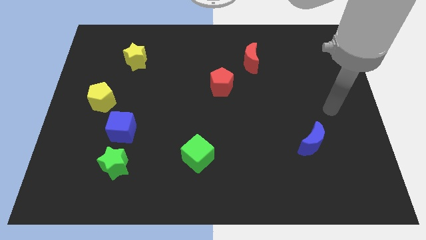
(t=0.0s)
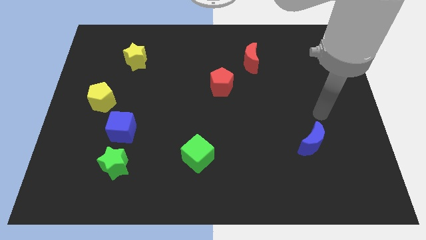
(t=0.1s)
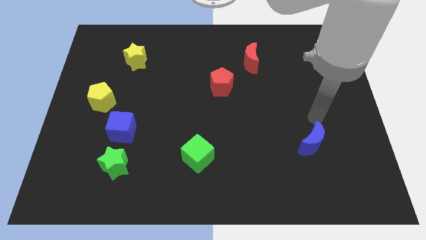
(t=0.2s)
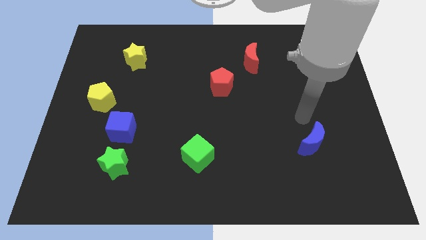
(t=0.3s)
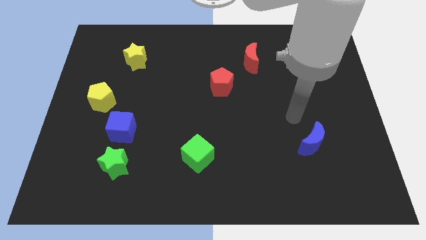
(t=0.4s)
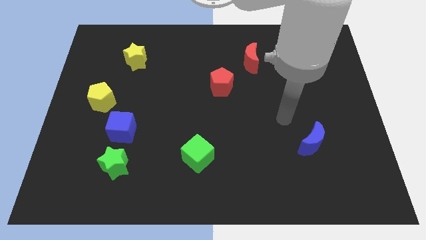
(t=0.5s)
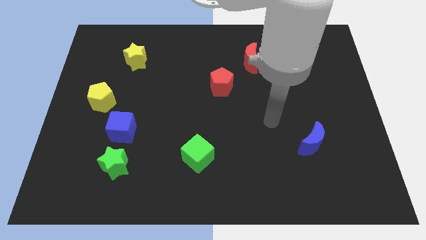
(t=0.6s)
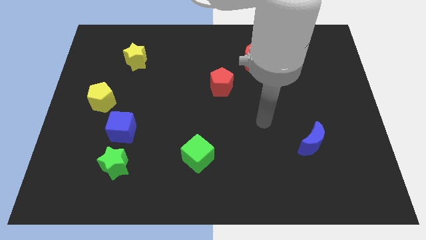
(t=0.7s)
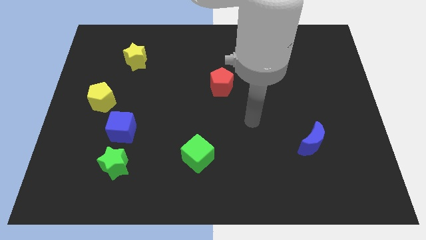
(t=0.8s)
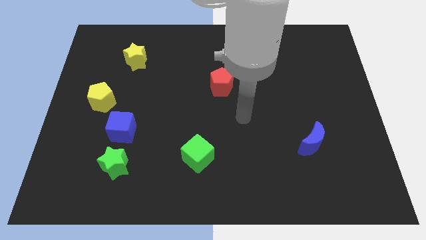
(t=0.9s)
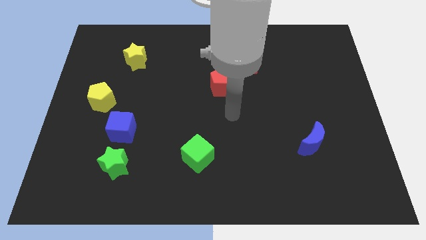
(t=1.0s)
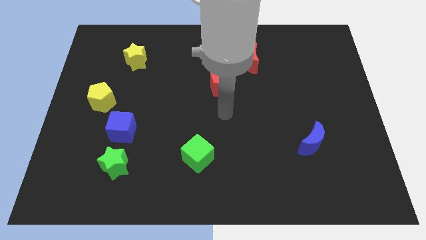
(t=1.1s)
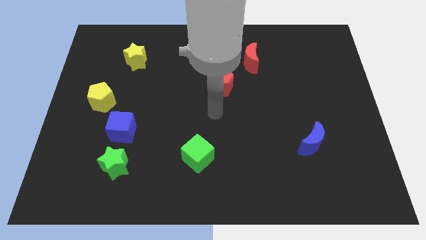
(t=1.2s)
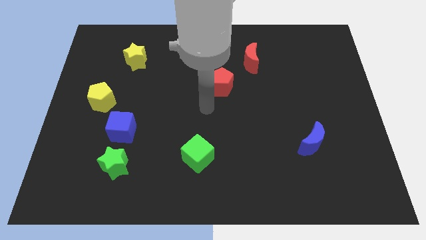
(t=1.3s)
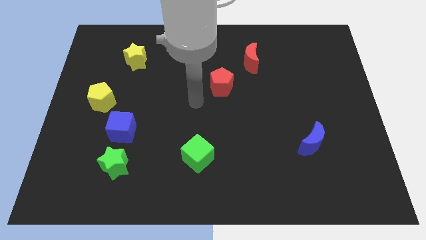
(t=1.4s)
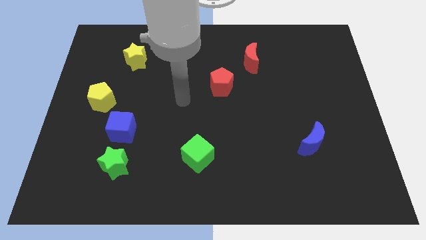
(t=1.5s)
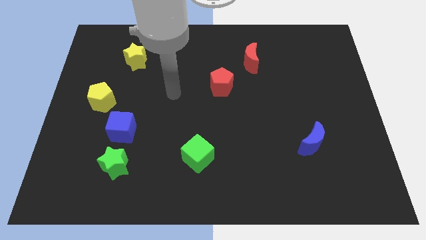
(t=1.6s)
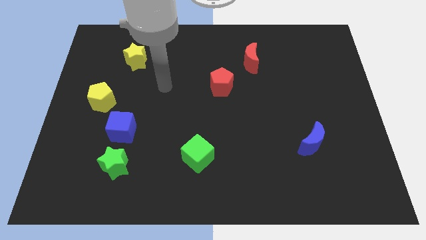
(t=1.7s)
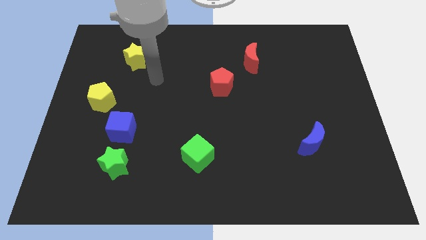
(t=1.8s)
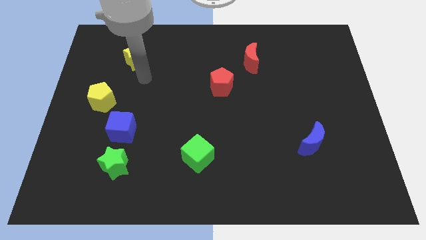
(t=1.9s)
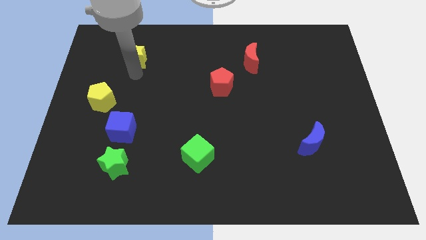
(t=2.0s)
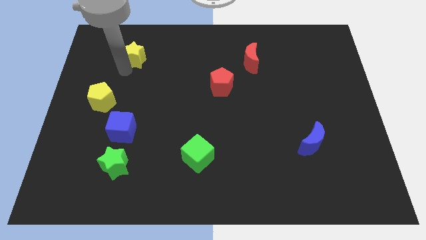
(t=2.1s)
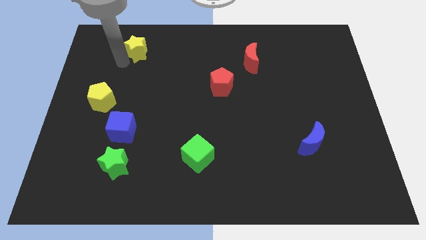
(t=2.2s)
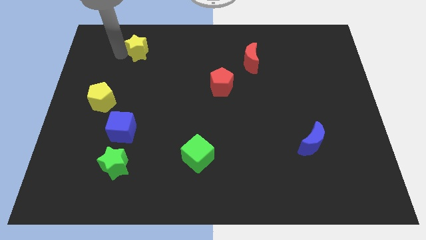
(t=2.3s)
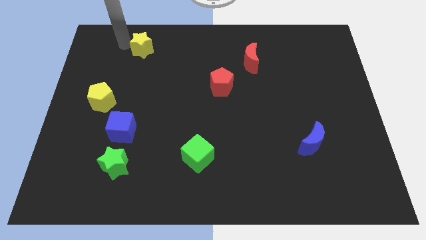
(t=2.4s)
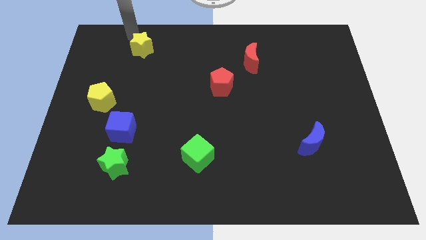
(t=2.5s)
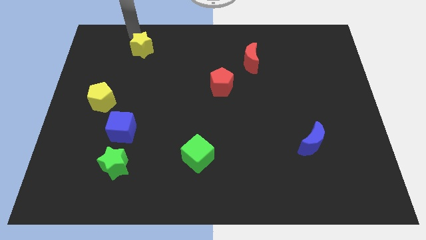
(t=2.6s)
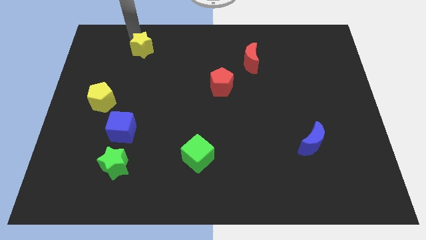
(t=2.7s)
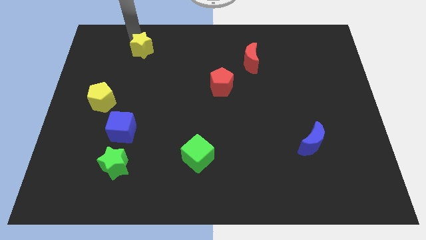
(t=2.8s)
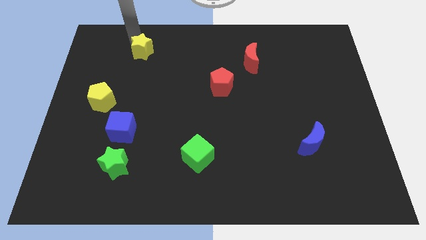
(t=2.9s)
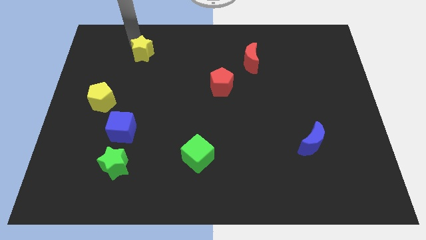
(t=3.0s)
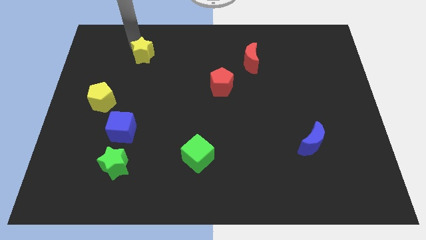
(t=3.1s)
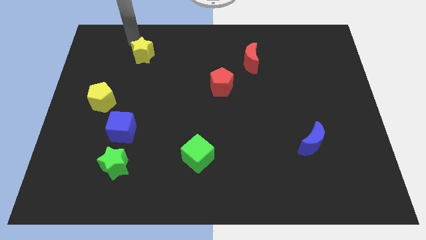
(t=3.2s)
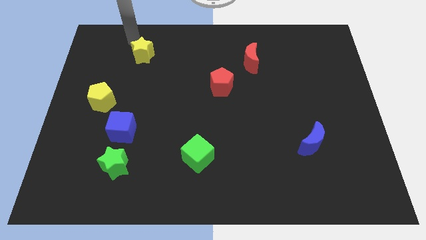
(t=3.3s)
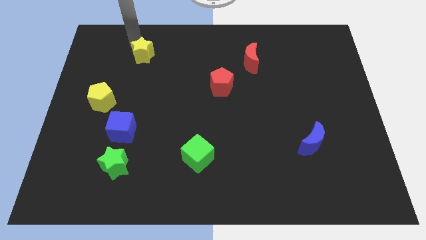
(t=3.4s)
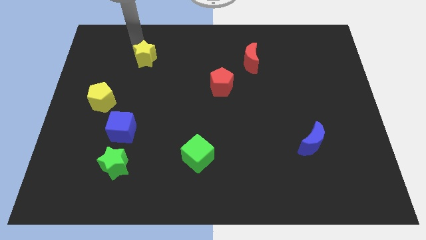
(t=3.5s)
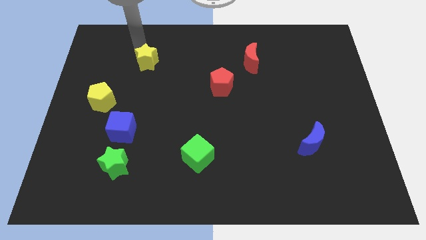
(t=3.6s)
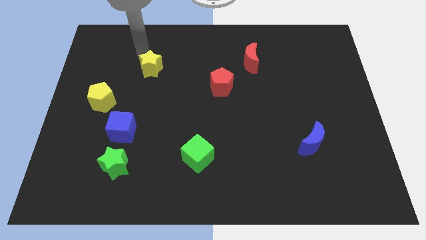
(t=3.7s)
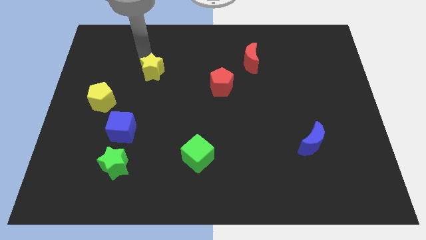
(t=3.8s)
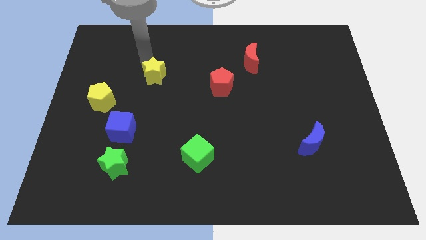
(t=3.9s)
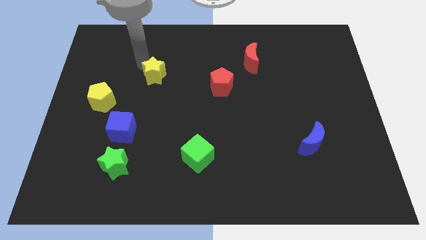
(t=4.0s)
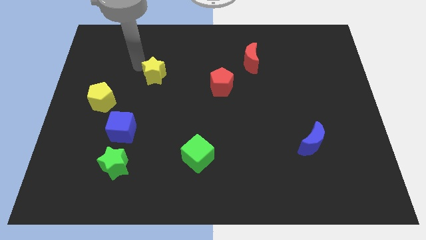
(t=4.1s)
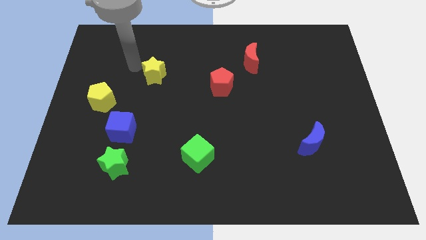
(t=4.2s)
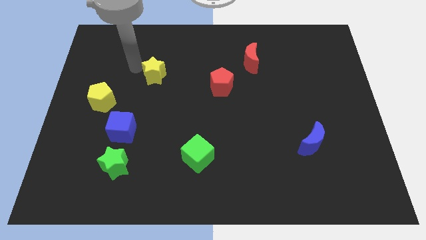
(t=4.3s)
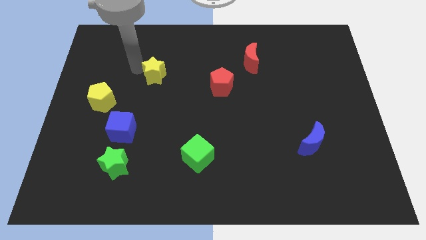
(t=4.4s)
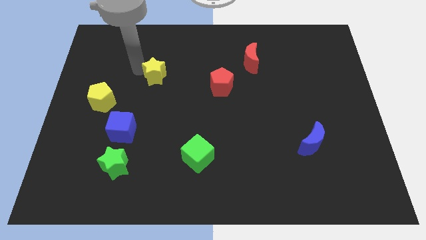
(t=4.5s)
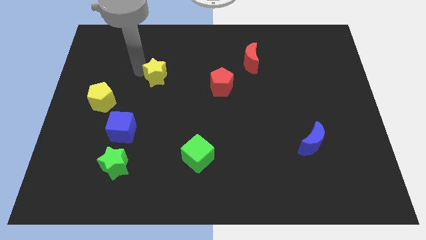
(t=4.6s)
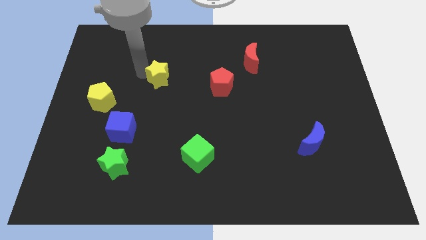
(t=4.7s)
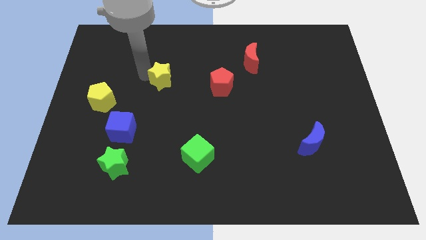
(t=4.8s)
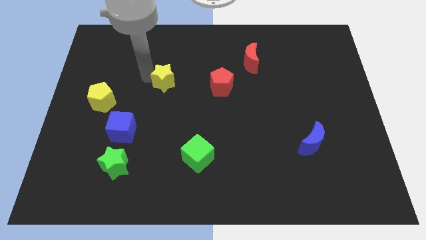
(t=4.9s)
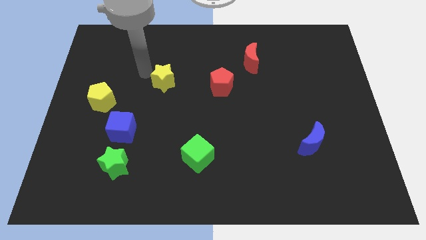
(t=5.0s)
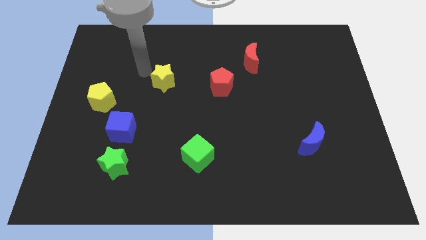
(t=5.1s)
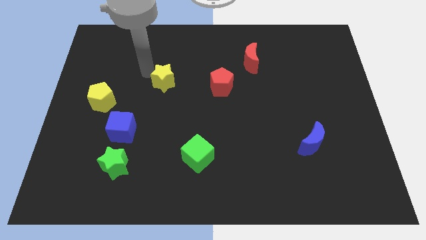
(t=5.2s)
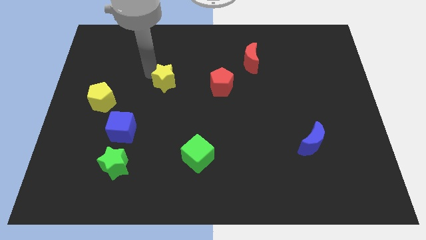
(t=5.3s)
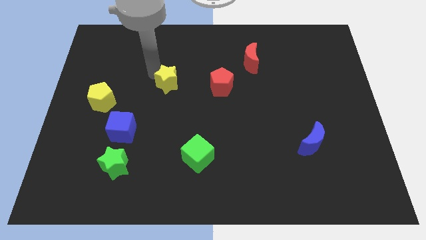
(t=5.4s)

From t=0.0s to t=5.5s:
put the yellow star to the middle

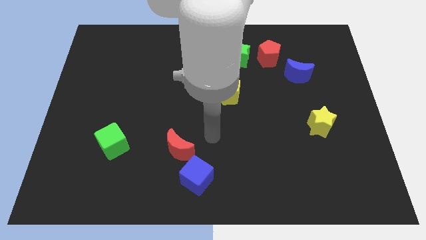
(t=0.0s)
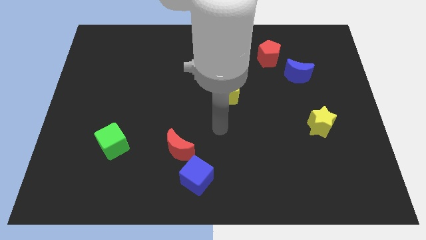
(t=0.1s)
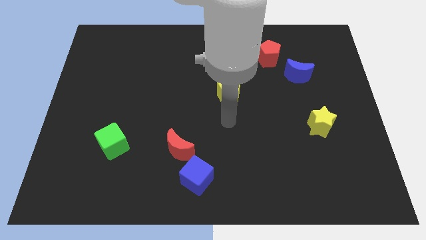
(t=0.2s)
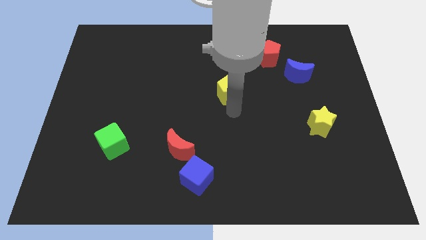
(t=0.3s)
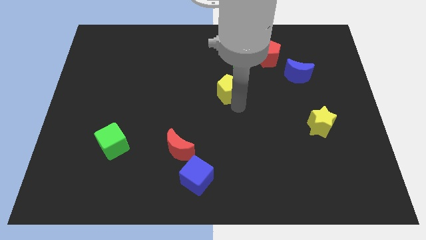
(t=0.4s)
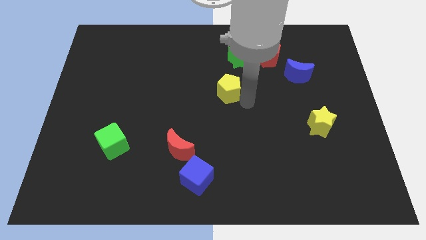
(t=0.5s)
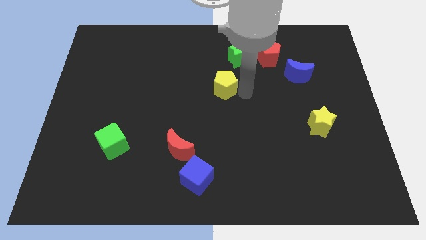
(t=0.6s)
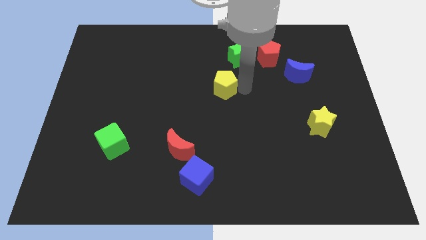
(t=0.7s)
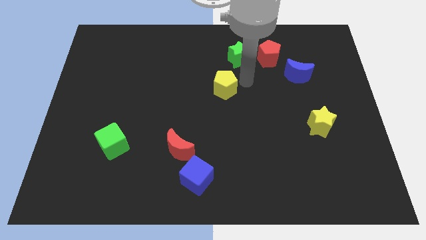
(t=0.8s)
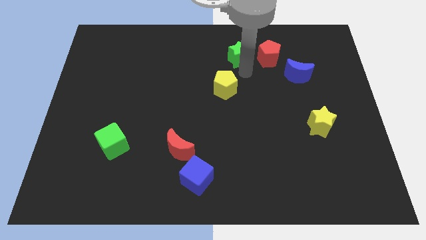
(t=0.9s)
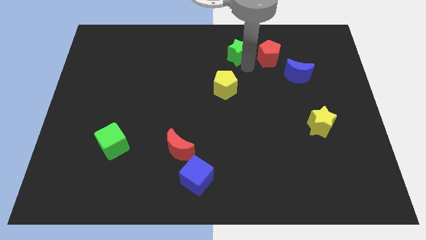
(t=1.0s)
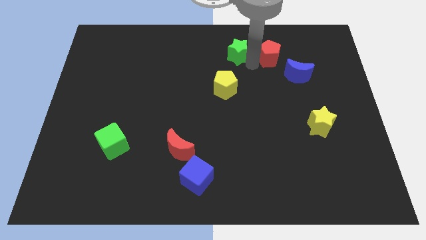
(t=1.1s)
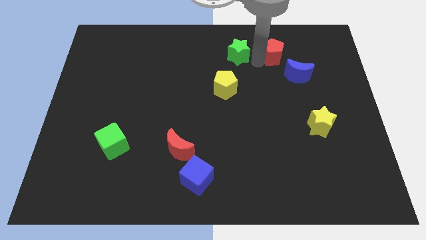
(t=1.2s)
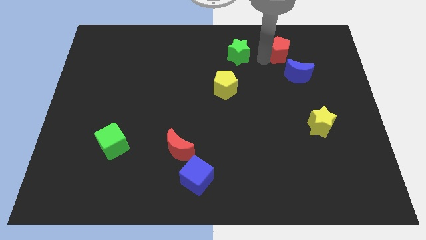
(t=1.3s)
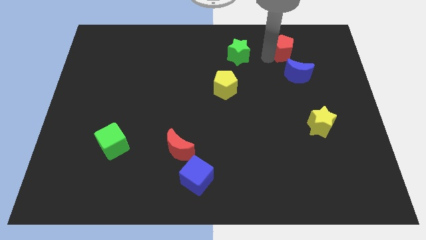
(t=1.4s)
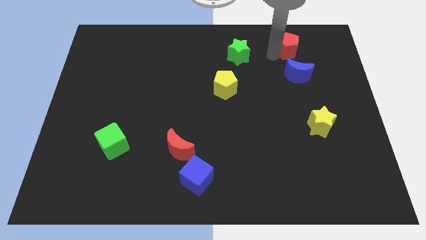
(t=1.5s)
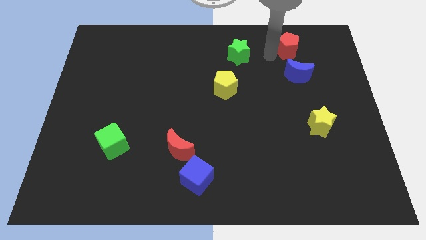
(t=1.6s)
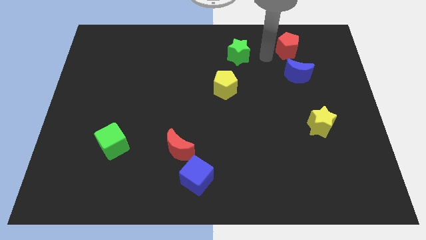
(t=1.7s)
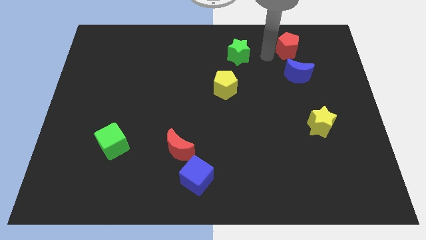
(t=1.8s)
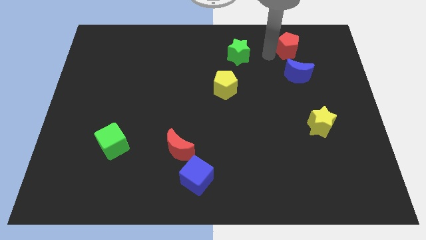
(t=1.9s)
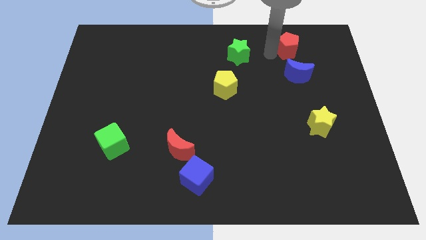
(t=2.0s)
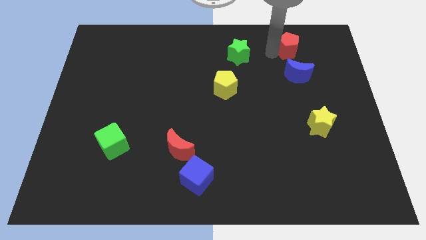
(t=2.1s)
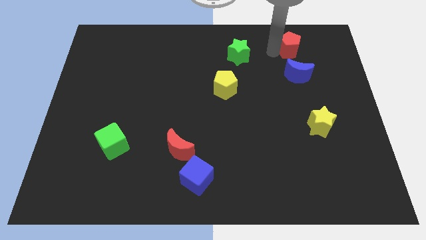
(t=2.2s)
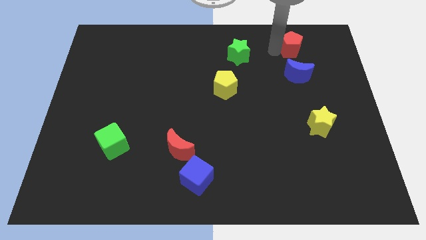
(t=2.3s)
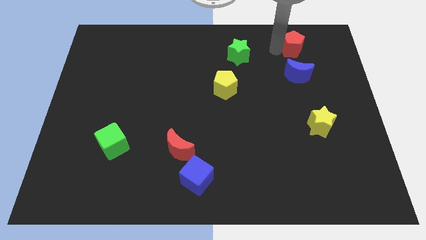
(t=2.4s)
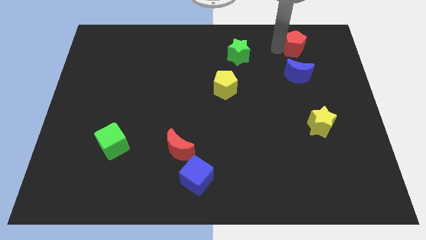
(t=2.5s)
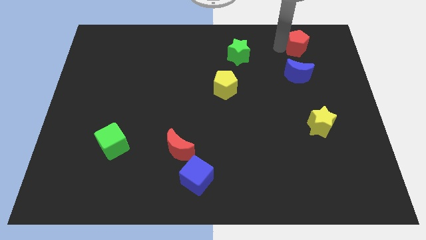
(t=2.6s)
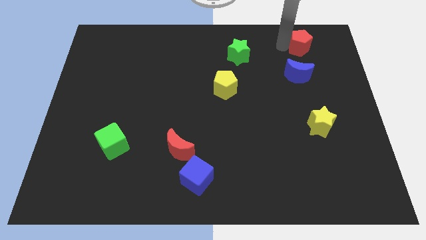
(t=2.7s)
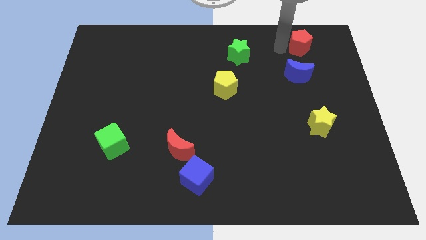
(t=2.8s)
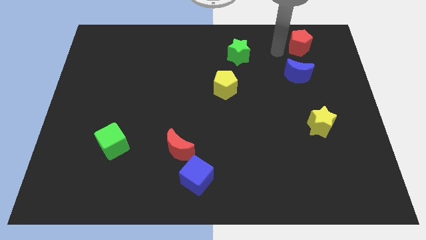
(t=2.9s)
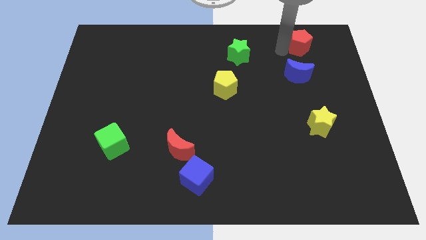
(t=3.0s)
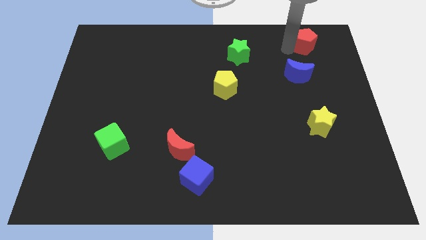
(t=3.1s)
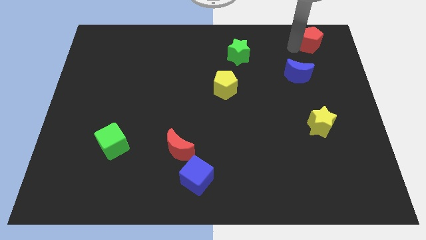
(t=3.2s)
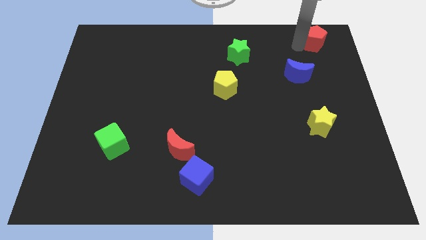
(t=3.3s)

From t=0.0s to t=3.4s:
push the red pentagon to the upper right corner
